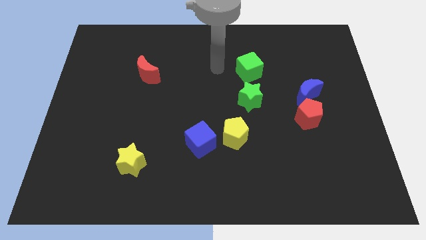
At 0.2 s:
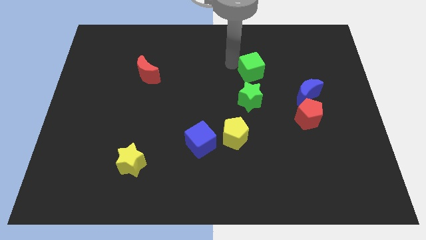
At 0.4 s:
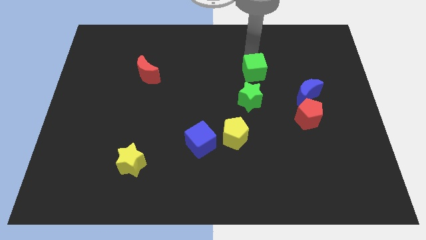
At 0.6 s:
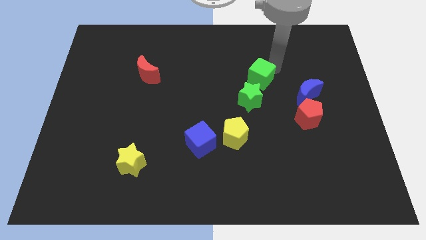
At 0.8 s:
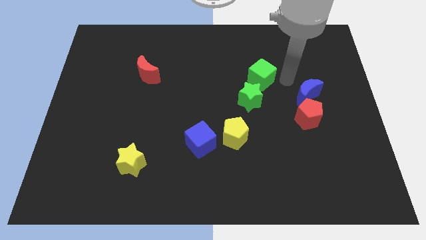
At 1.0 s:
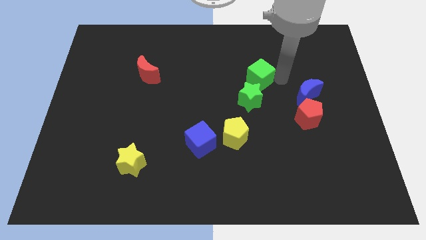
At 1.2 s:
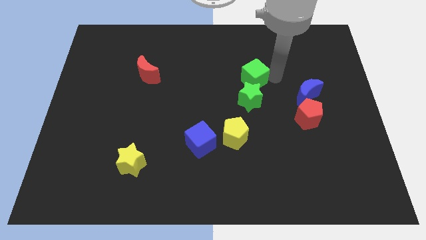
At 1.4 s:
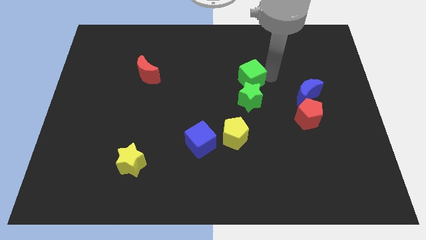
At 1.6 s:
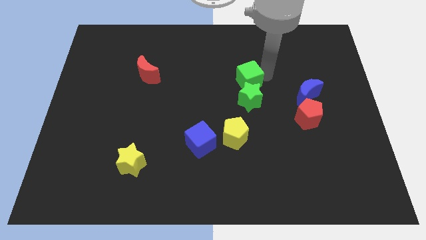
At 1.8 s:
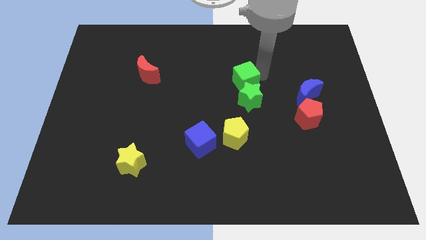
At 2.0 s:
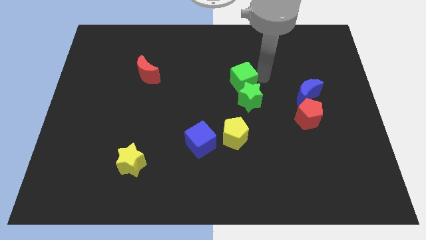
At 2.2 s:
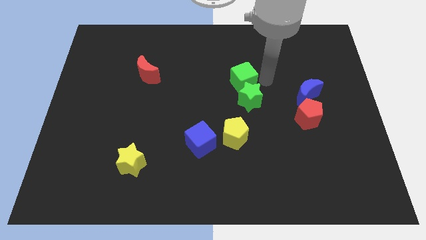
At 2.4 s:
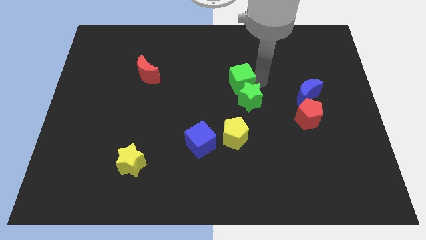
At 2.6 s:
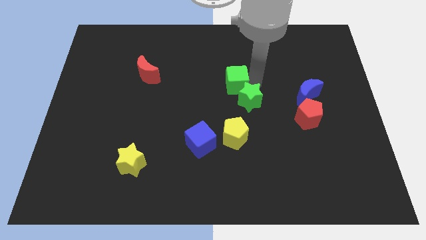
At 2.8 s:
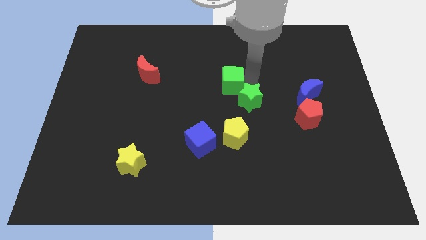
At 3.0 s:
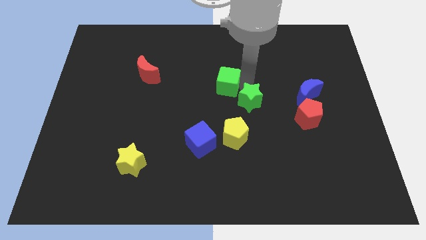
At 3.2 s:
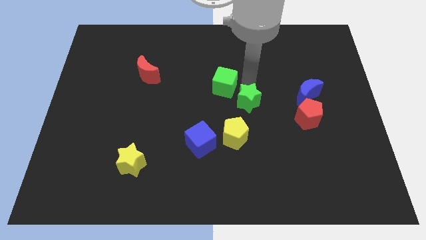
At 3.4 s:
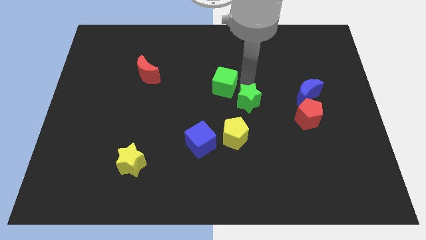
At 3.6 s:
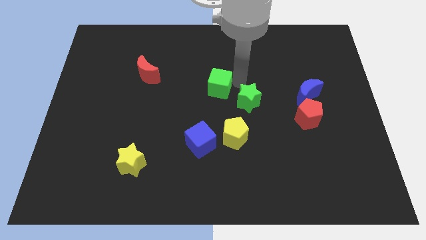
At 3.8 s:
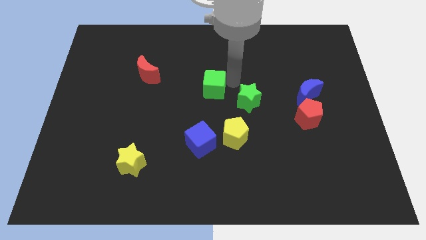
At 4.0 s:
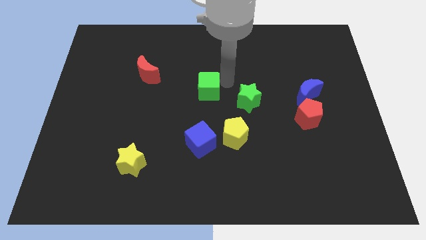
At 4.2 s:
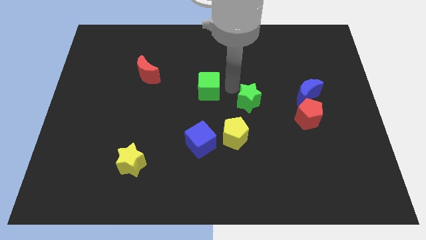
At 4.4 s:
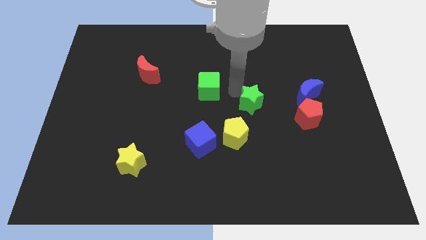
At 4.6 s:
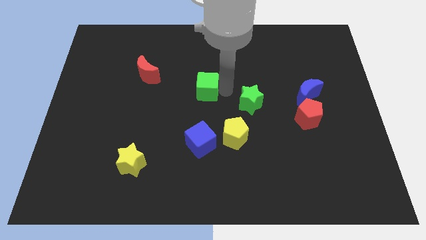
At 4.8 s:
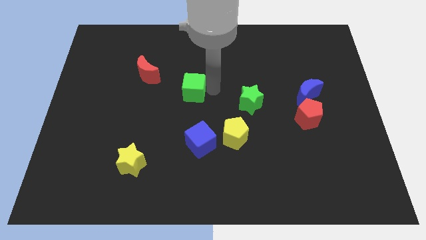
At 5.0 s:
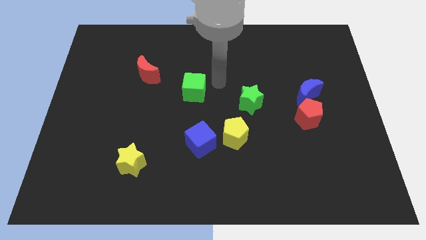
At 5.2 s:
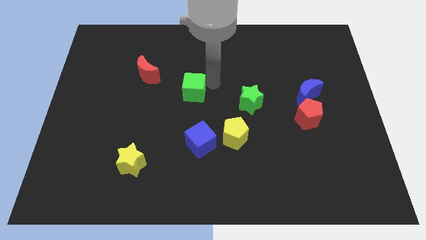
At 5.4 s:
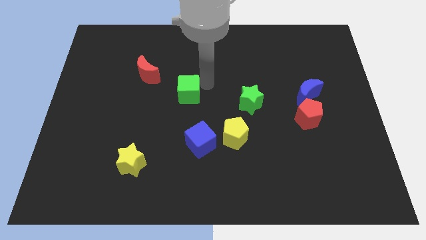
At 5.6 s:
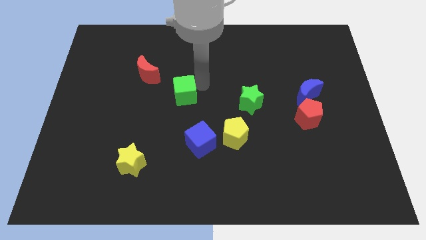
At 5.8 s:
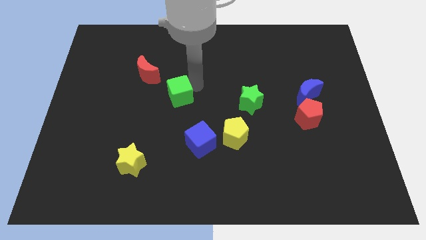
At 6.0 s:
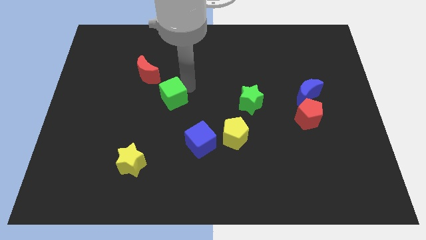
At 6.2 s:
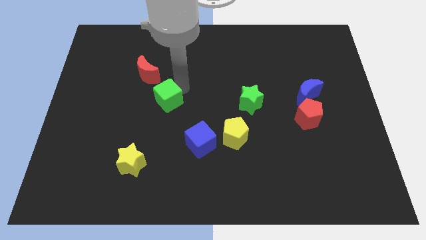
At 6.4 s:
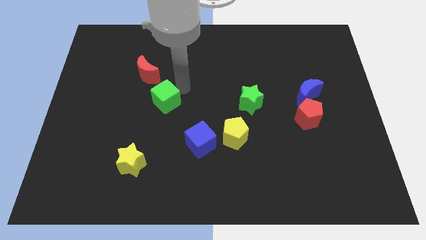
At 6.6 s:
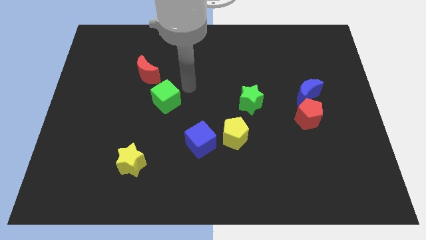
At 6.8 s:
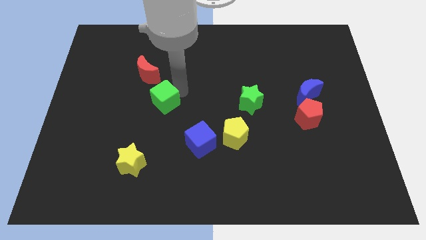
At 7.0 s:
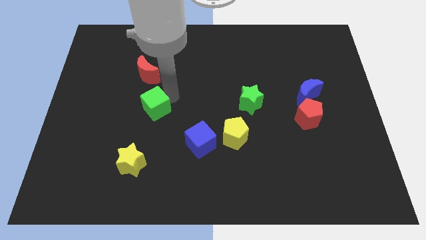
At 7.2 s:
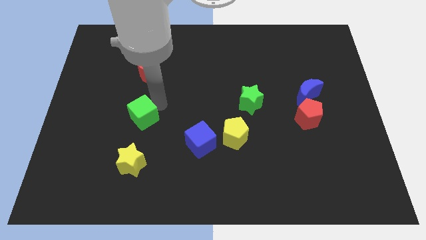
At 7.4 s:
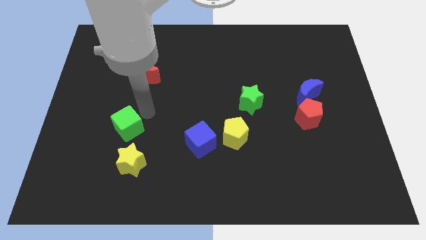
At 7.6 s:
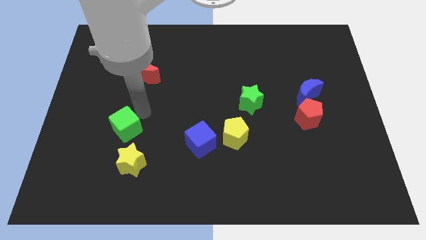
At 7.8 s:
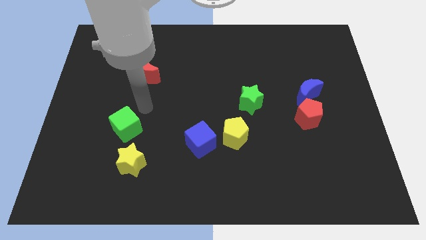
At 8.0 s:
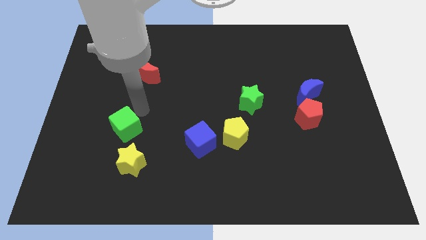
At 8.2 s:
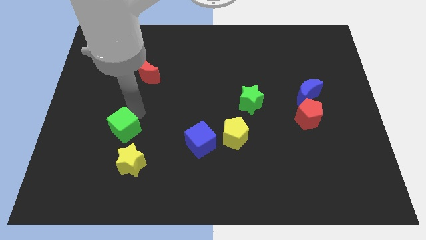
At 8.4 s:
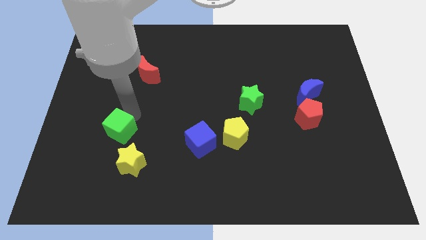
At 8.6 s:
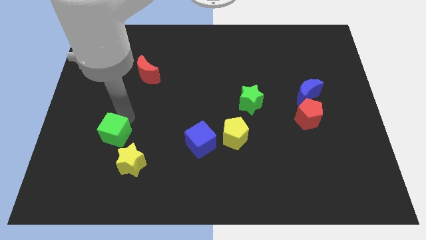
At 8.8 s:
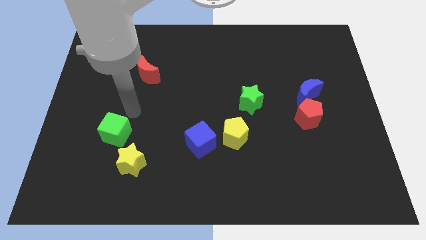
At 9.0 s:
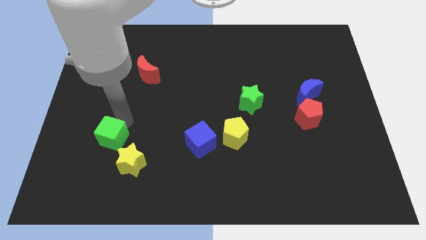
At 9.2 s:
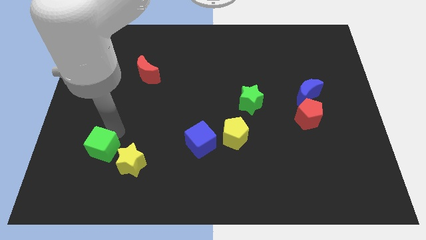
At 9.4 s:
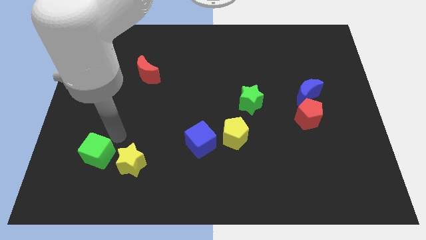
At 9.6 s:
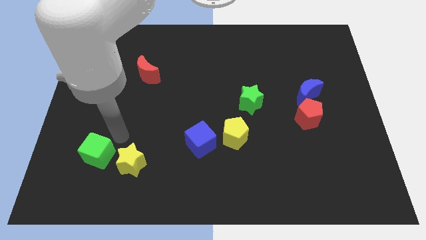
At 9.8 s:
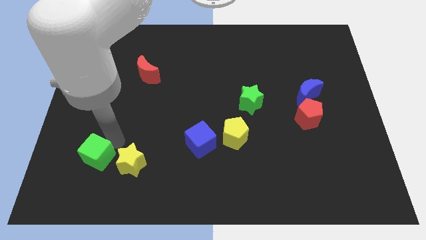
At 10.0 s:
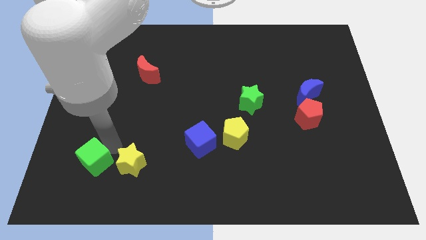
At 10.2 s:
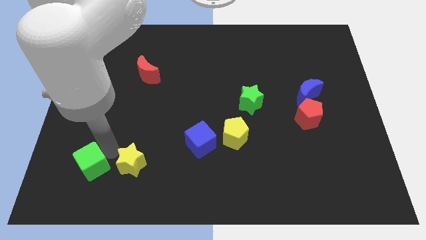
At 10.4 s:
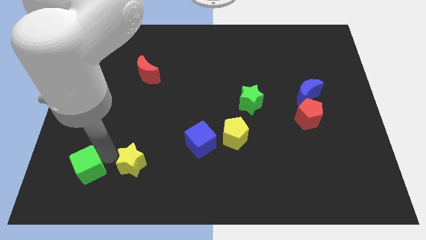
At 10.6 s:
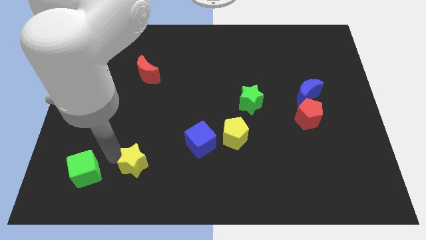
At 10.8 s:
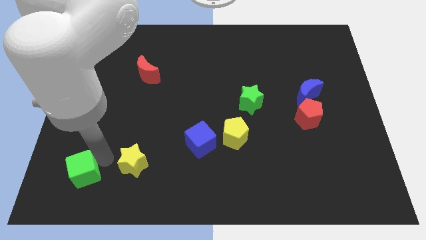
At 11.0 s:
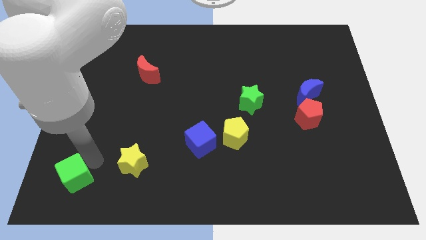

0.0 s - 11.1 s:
push the green cube to the bottom left corner
